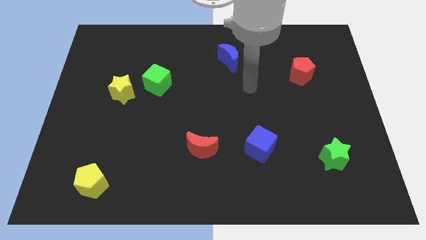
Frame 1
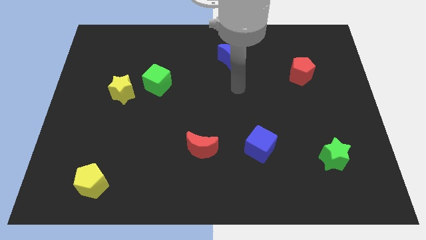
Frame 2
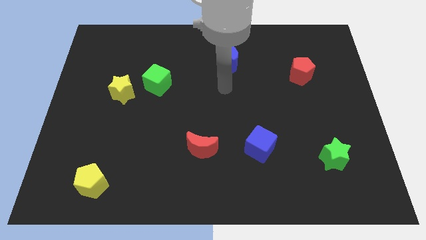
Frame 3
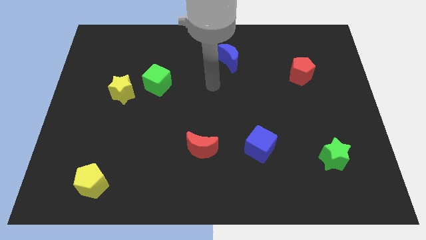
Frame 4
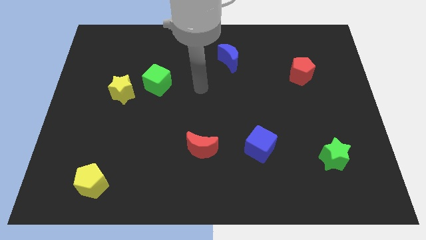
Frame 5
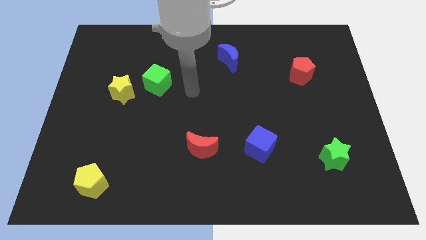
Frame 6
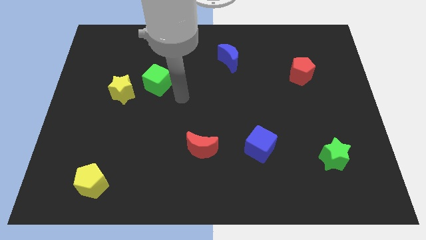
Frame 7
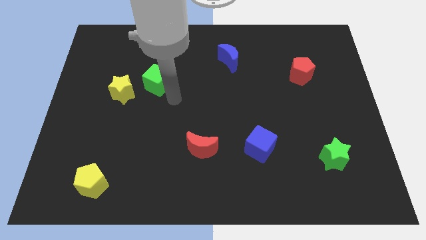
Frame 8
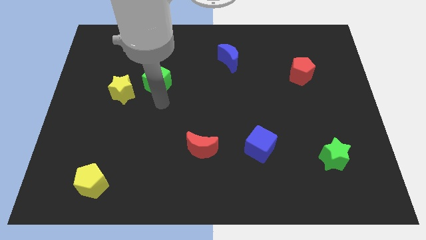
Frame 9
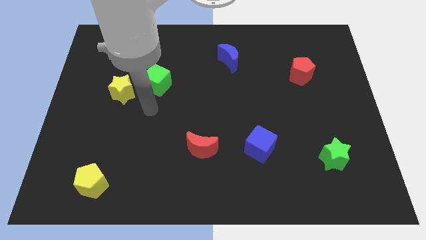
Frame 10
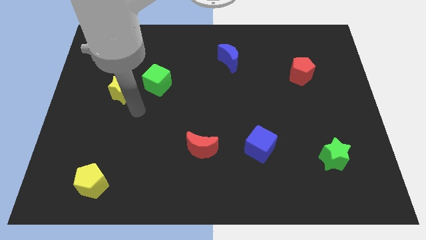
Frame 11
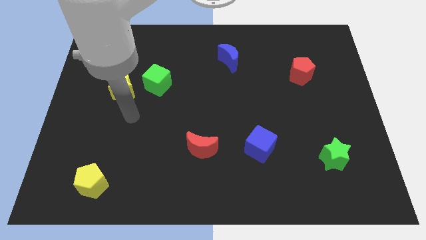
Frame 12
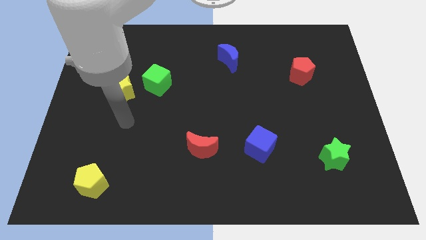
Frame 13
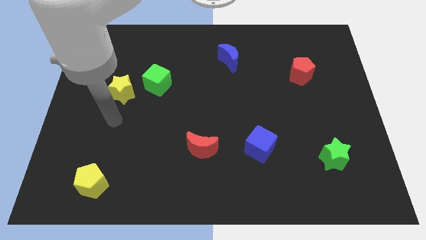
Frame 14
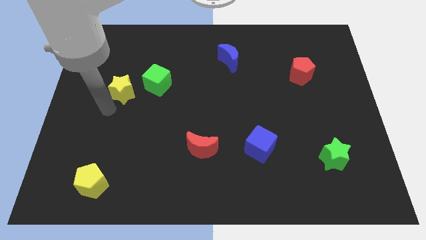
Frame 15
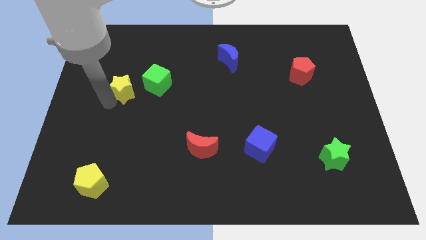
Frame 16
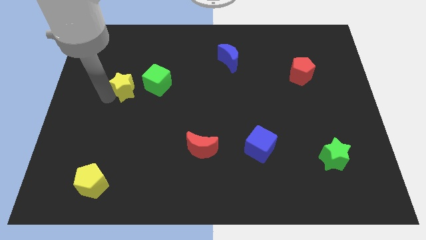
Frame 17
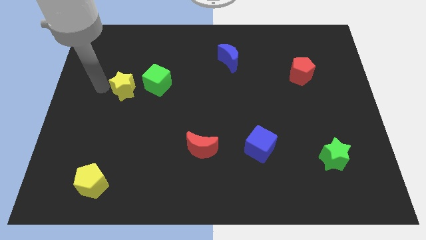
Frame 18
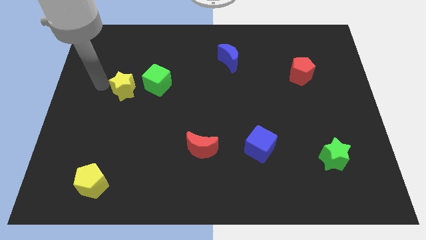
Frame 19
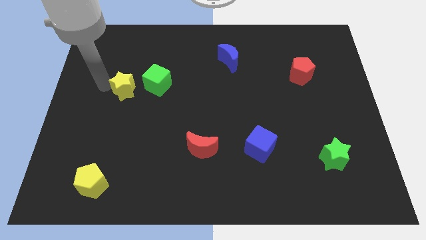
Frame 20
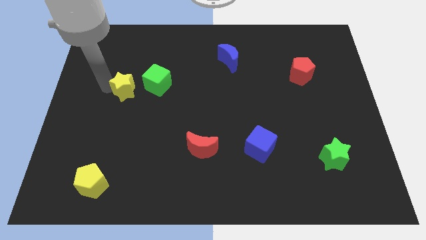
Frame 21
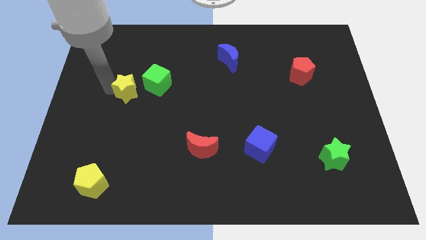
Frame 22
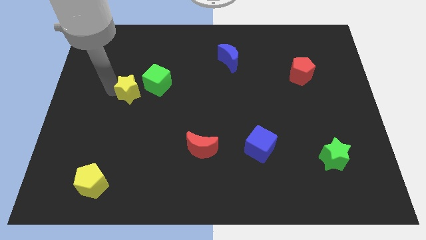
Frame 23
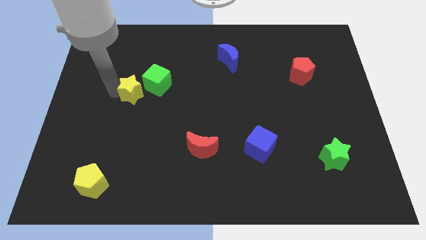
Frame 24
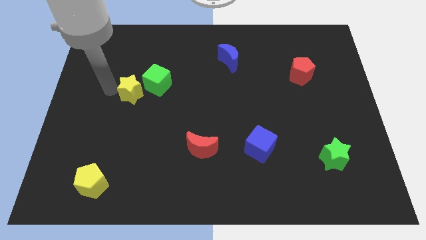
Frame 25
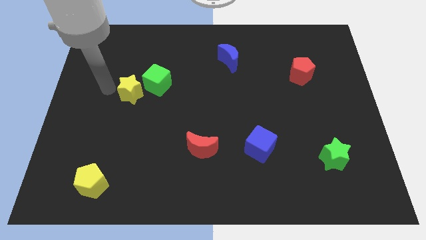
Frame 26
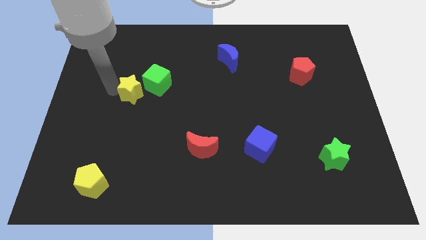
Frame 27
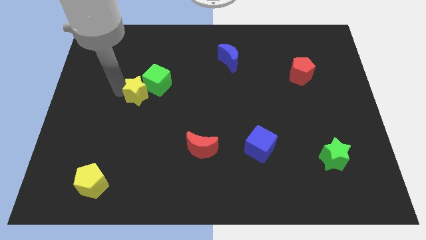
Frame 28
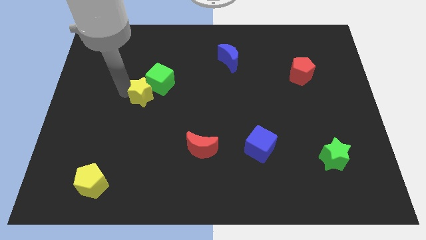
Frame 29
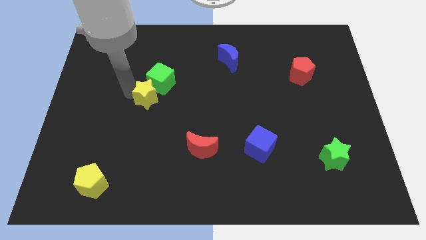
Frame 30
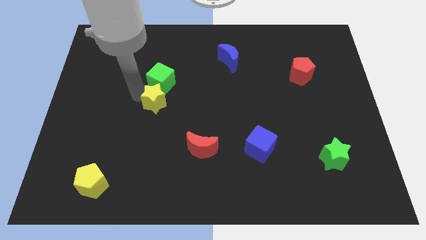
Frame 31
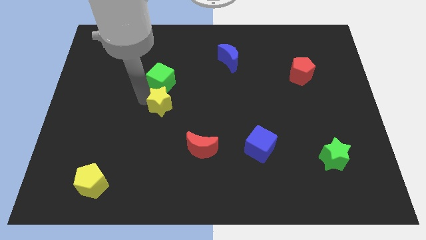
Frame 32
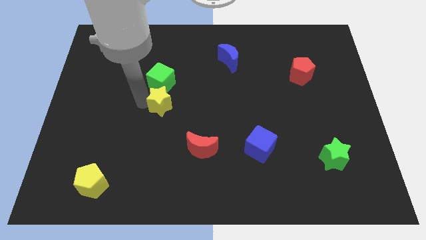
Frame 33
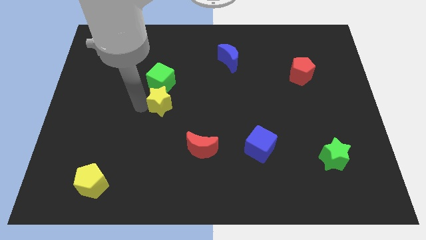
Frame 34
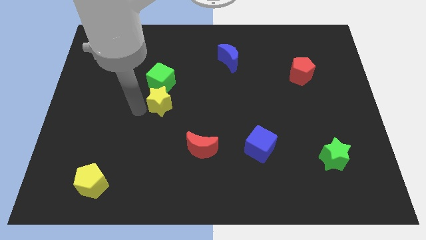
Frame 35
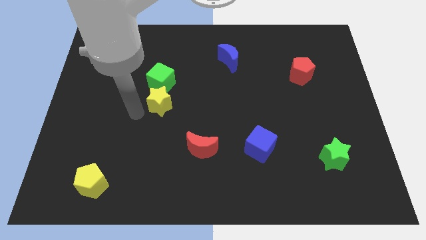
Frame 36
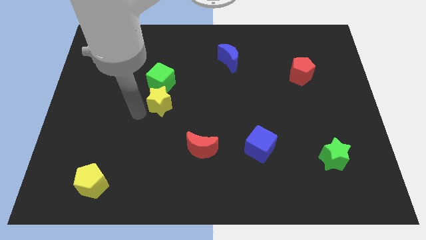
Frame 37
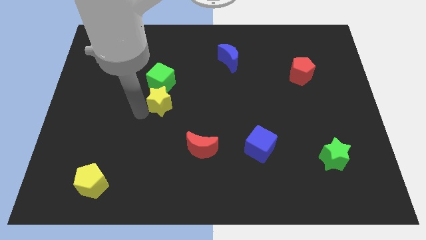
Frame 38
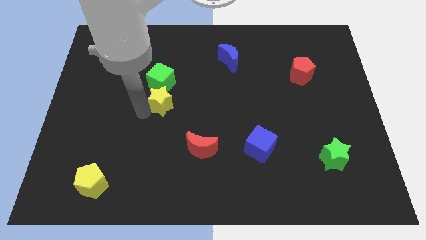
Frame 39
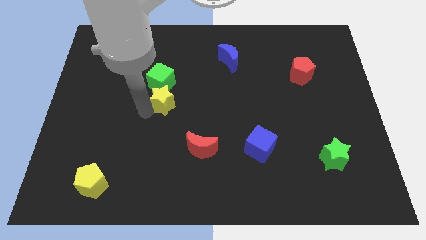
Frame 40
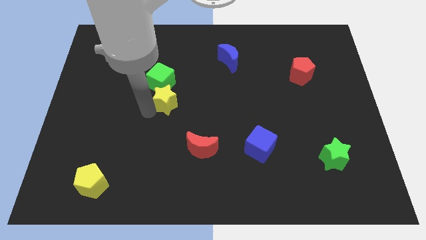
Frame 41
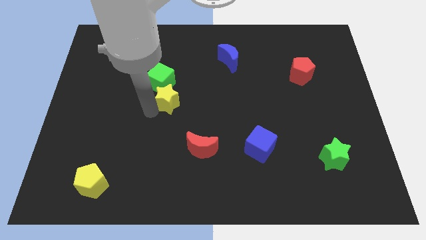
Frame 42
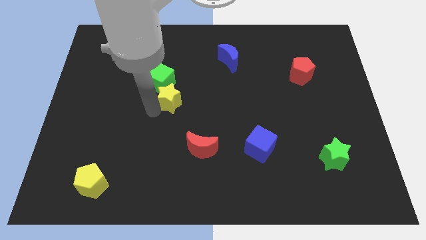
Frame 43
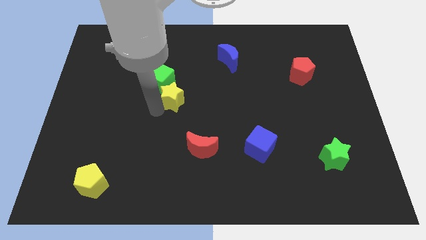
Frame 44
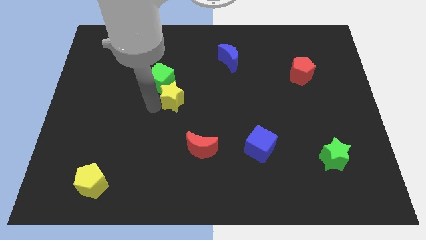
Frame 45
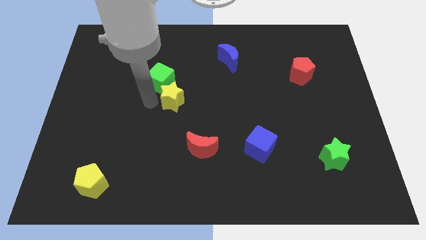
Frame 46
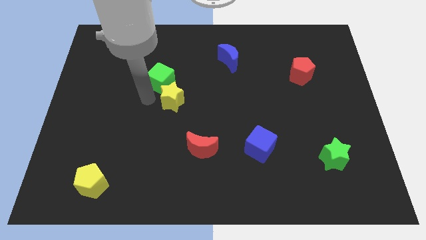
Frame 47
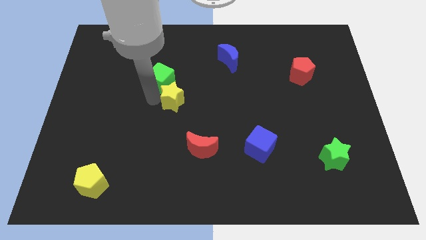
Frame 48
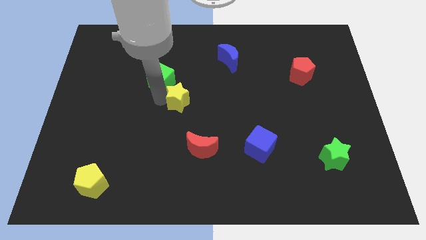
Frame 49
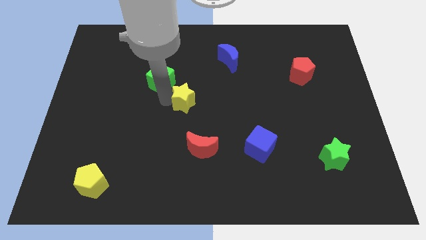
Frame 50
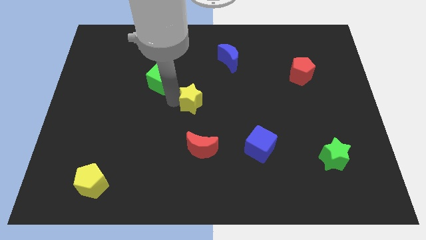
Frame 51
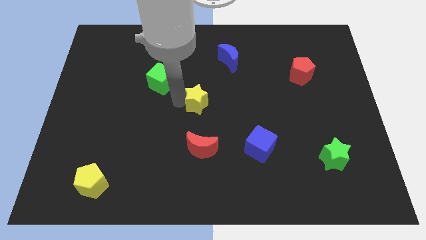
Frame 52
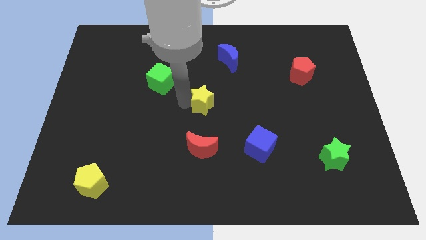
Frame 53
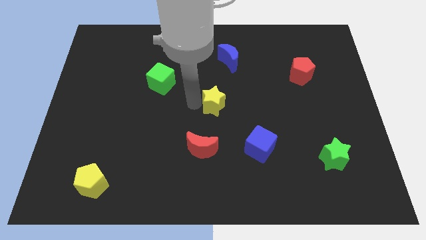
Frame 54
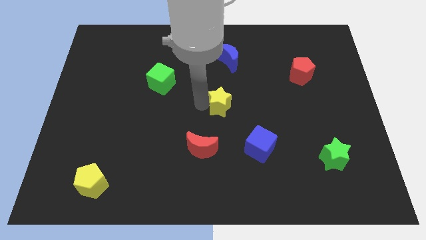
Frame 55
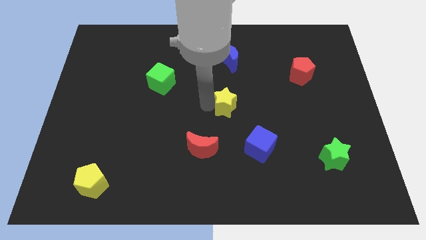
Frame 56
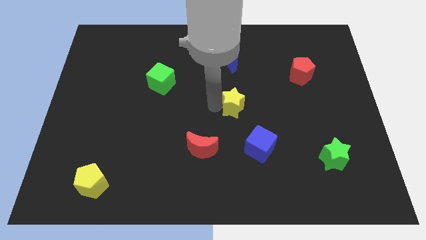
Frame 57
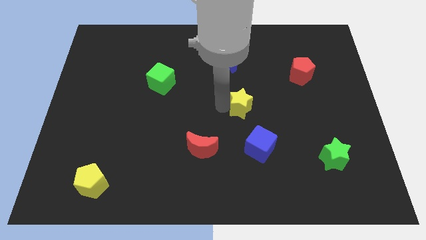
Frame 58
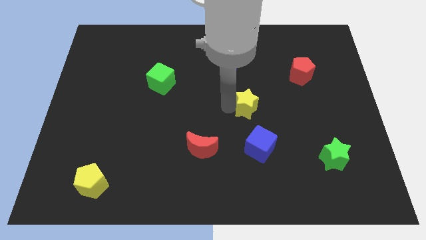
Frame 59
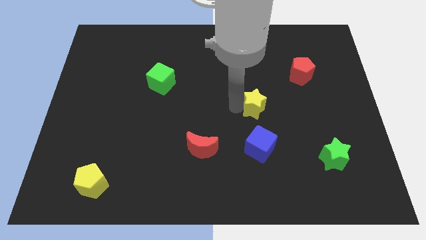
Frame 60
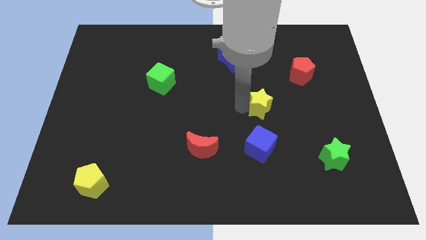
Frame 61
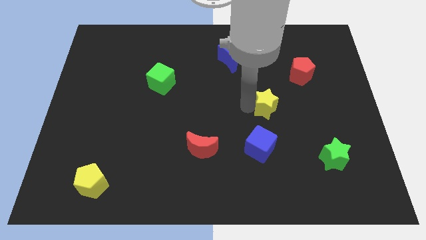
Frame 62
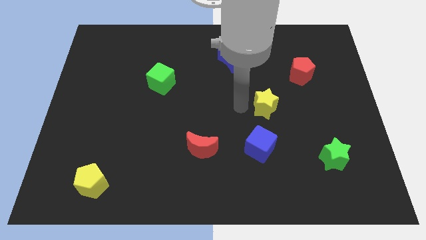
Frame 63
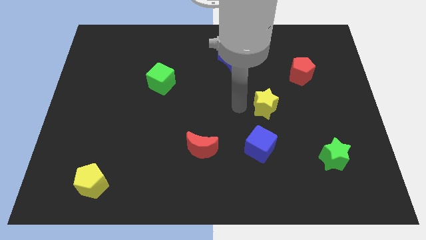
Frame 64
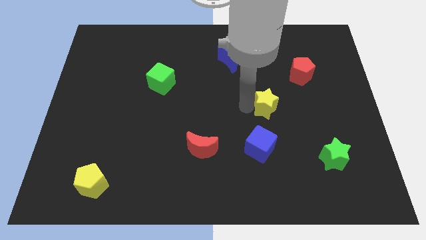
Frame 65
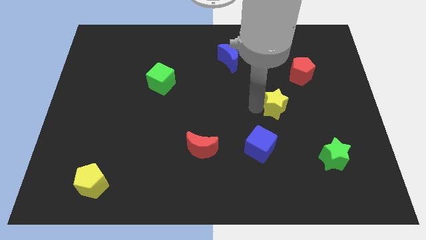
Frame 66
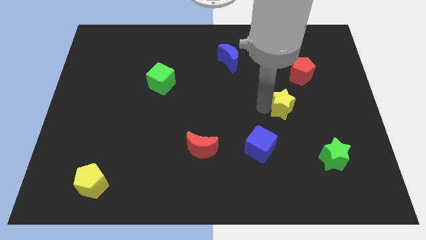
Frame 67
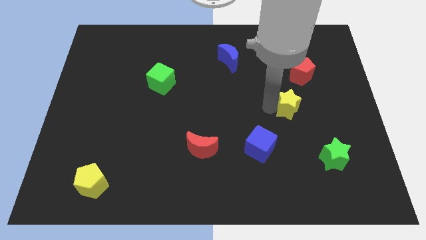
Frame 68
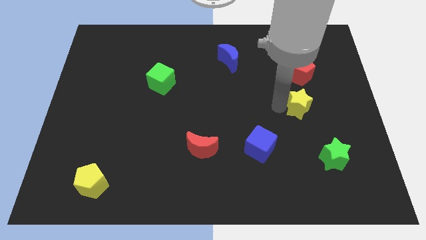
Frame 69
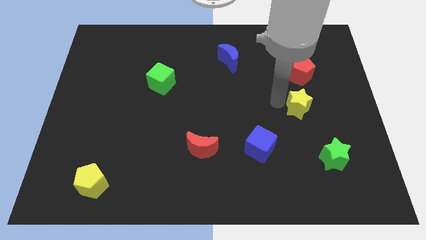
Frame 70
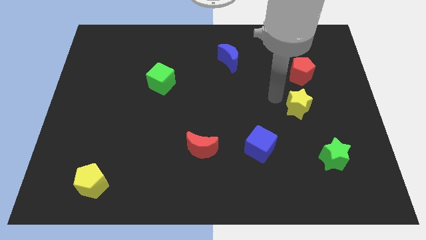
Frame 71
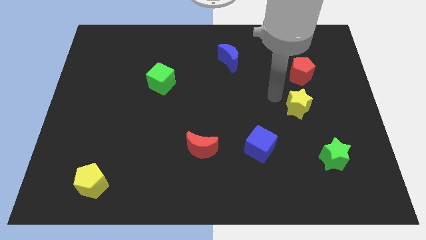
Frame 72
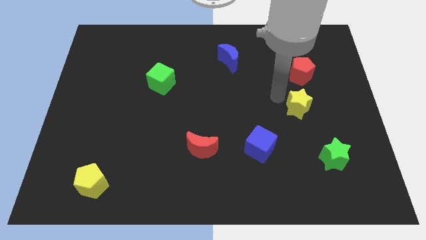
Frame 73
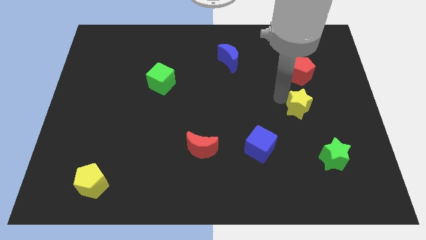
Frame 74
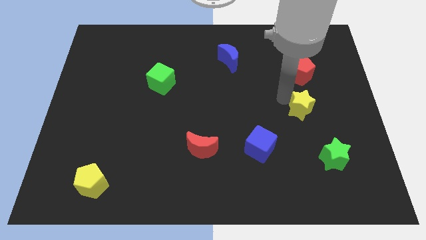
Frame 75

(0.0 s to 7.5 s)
move the yellow star to the top of the green star
